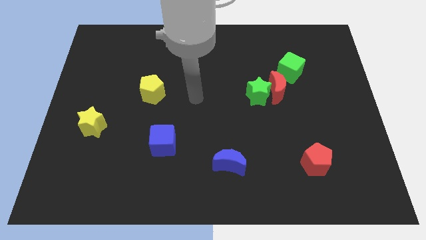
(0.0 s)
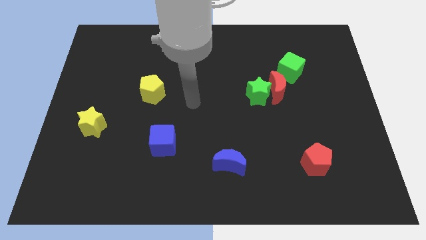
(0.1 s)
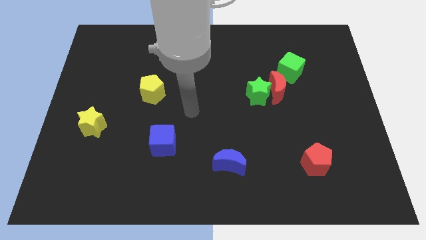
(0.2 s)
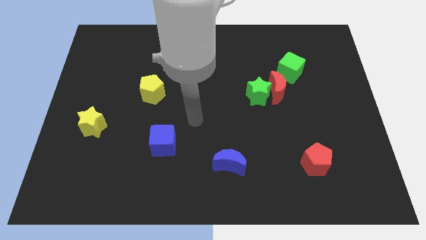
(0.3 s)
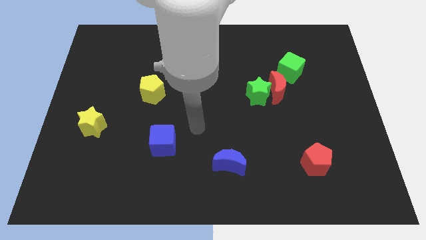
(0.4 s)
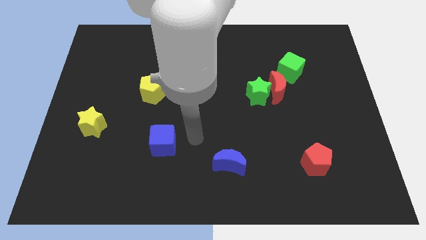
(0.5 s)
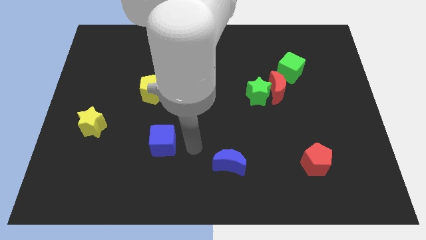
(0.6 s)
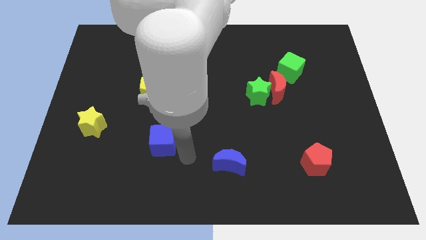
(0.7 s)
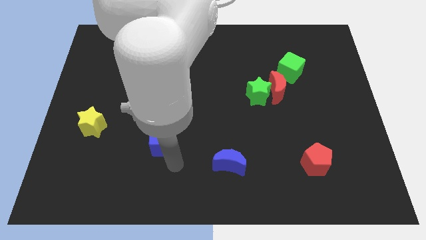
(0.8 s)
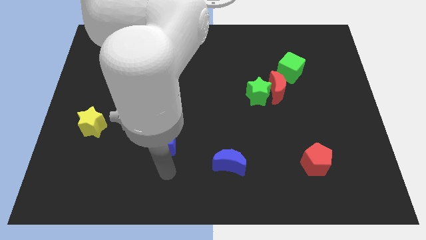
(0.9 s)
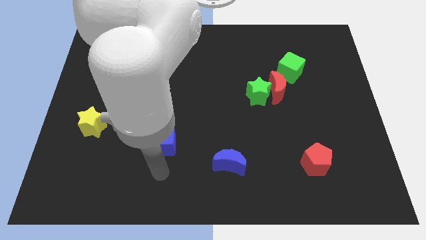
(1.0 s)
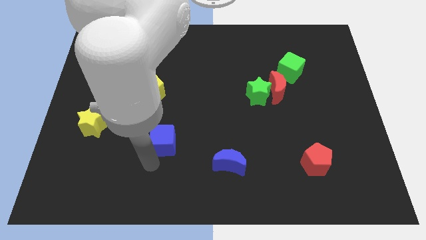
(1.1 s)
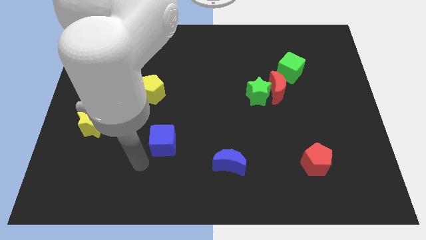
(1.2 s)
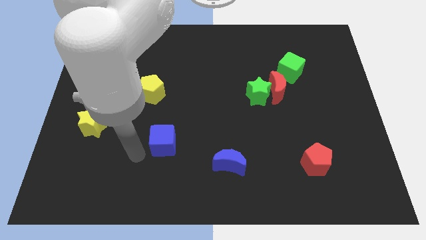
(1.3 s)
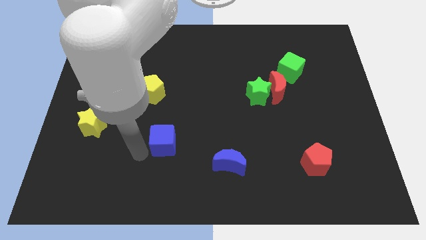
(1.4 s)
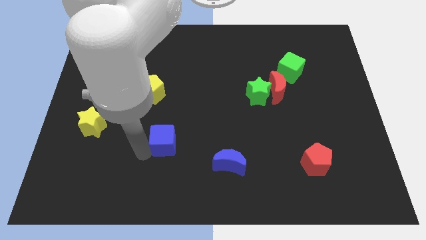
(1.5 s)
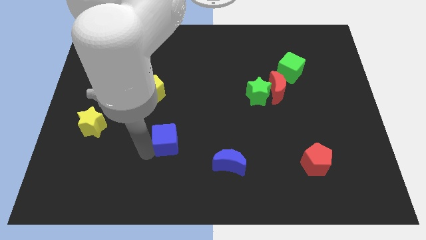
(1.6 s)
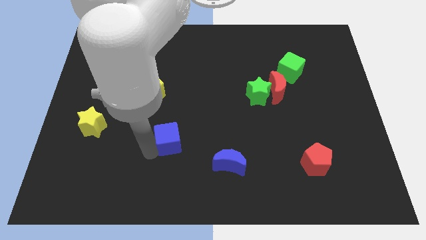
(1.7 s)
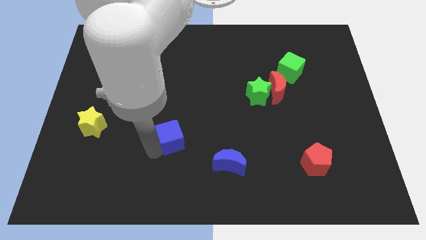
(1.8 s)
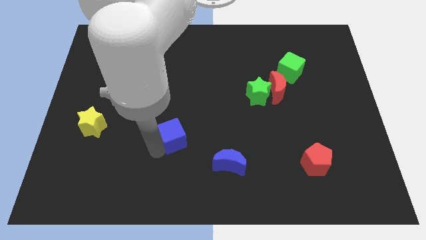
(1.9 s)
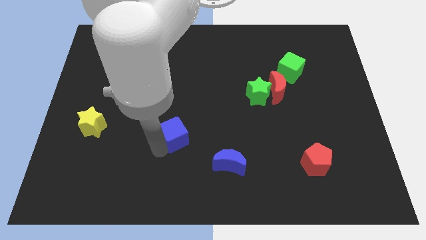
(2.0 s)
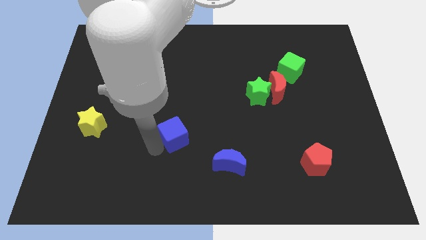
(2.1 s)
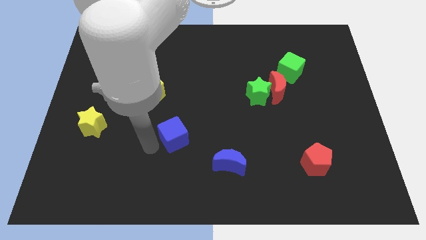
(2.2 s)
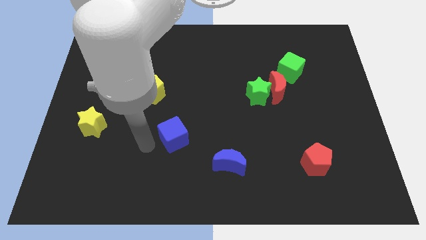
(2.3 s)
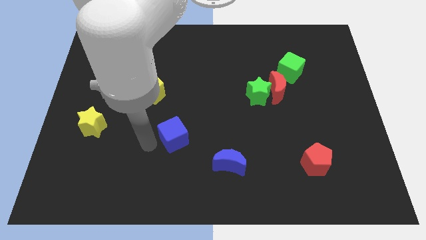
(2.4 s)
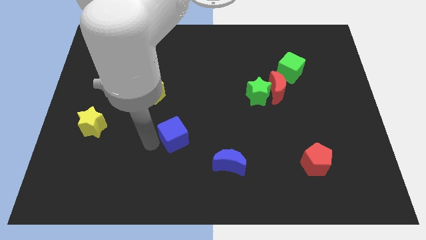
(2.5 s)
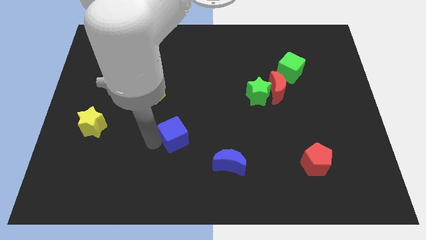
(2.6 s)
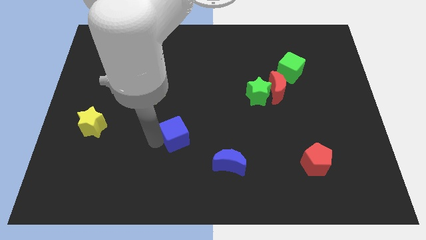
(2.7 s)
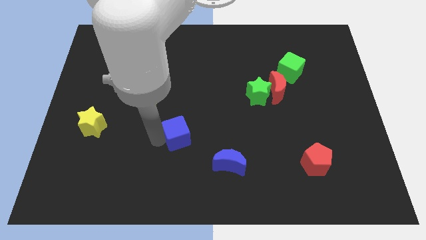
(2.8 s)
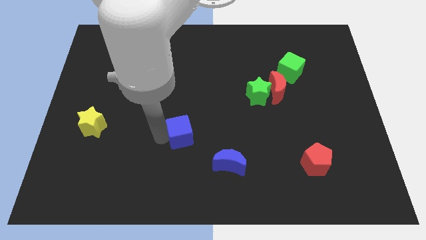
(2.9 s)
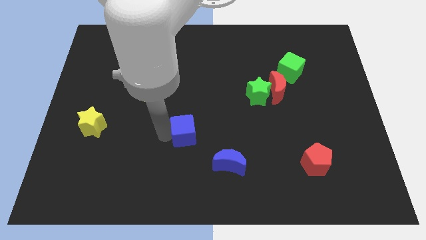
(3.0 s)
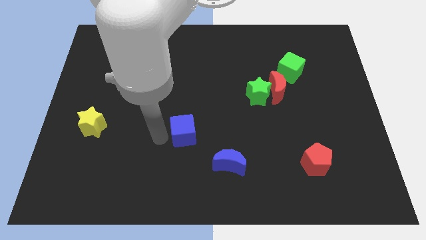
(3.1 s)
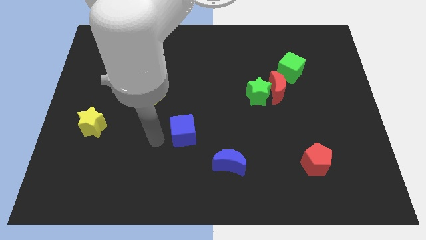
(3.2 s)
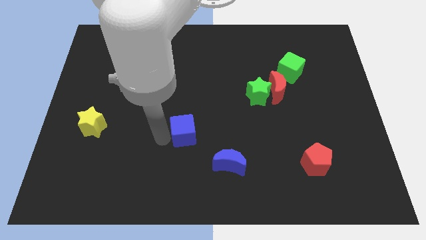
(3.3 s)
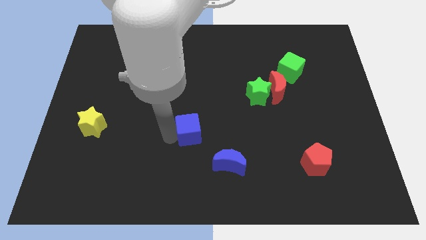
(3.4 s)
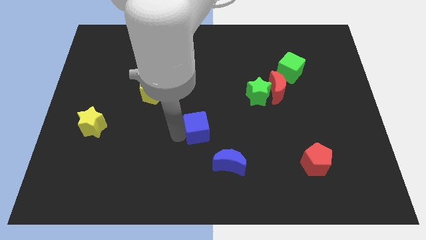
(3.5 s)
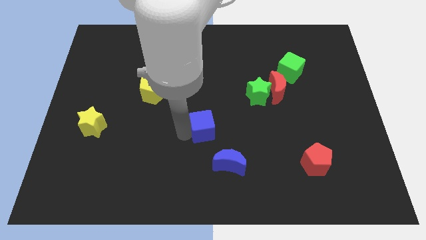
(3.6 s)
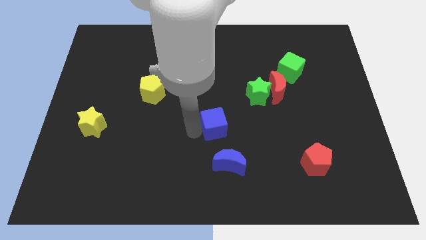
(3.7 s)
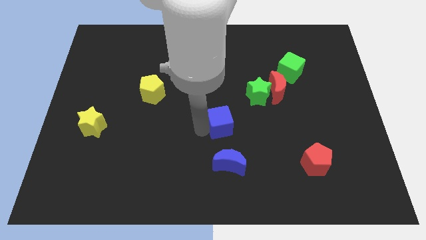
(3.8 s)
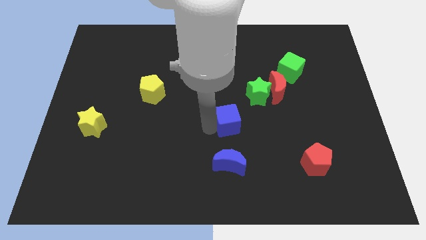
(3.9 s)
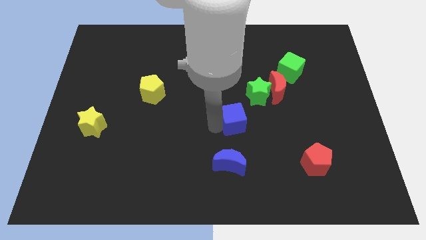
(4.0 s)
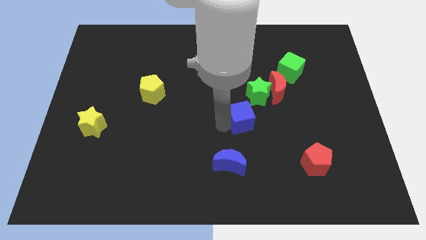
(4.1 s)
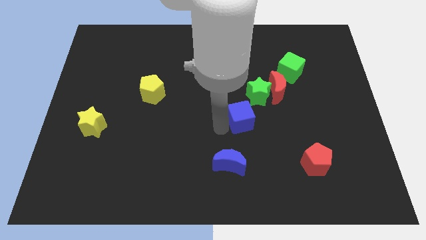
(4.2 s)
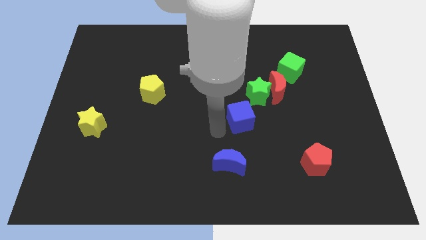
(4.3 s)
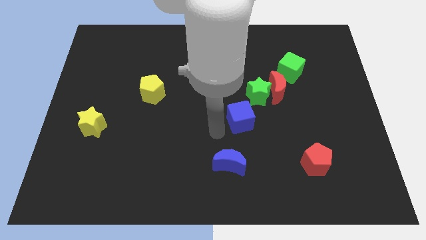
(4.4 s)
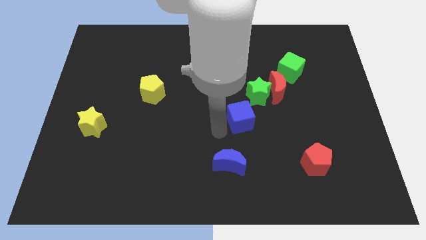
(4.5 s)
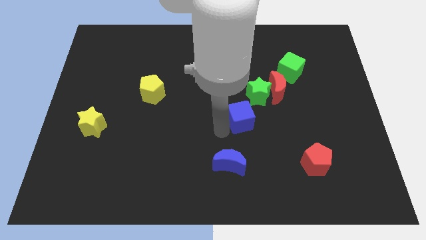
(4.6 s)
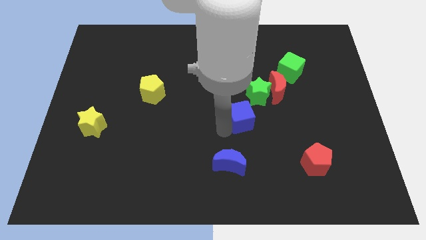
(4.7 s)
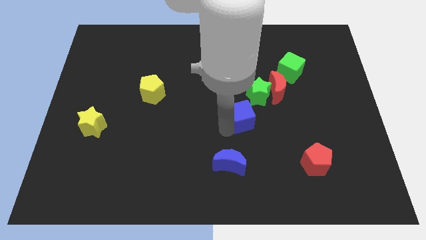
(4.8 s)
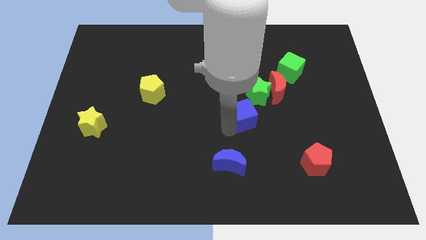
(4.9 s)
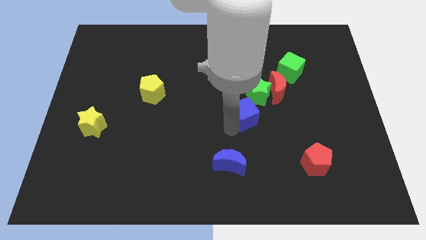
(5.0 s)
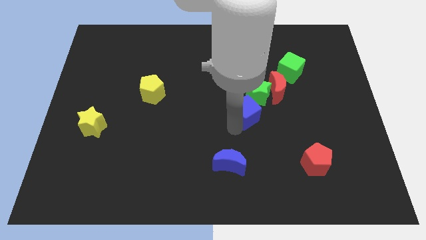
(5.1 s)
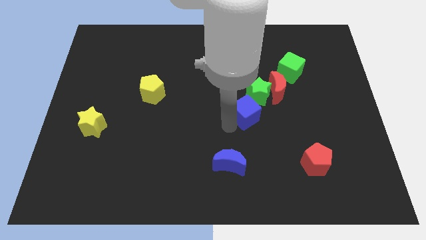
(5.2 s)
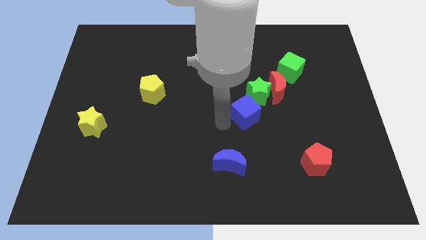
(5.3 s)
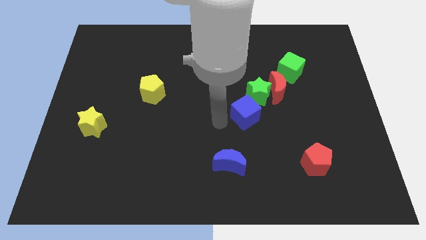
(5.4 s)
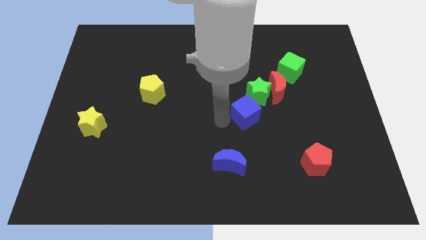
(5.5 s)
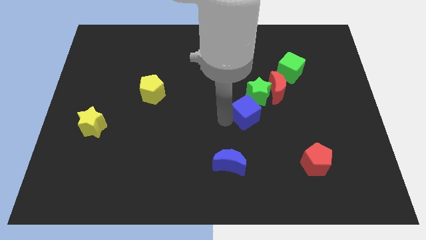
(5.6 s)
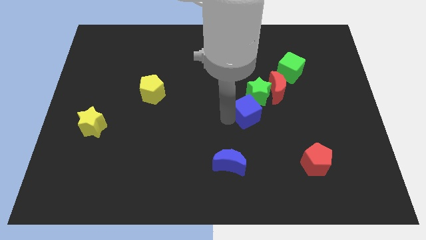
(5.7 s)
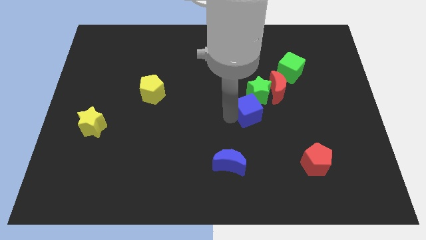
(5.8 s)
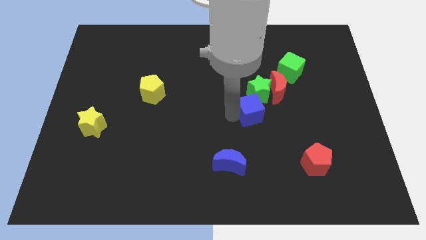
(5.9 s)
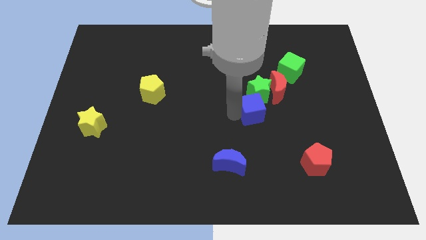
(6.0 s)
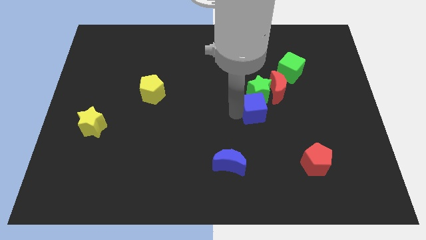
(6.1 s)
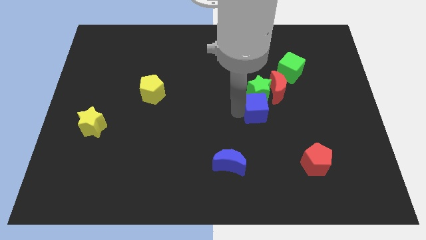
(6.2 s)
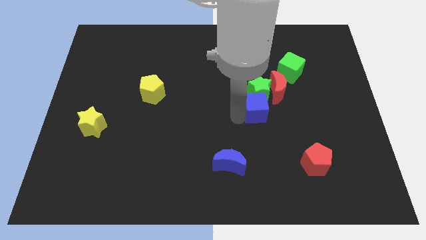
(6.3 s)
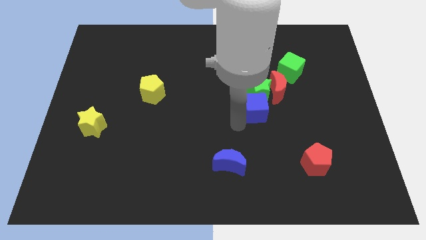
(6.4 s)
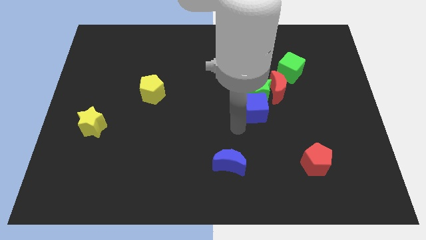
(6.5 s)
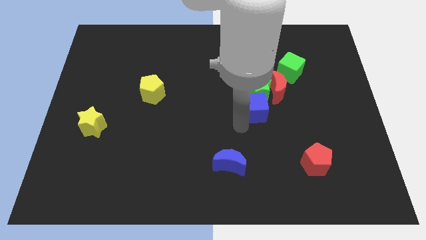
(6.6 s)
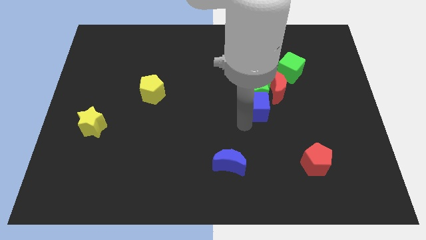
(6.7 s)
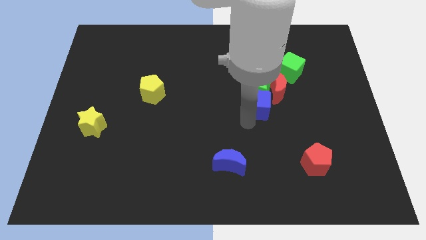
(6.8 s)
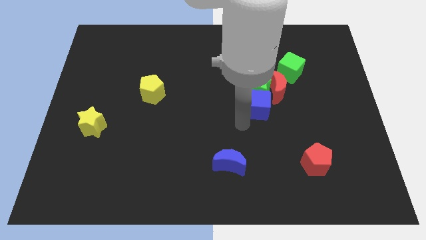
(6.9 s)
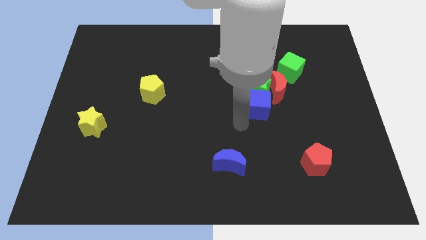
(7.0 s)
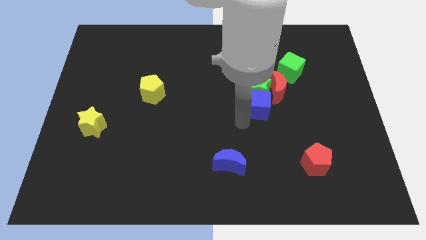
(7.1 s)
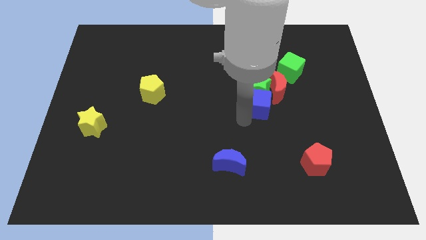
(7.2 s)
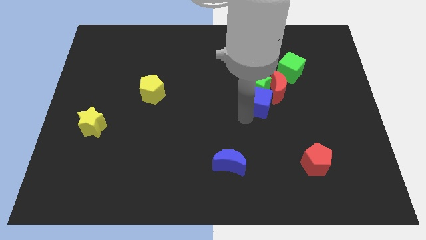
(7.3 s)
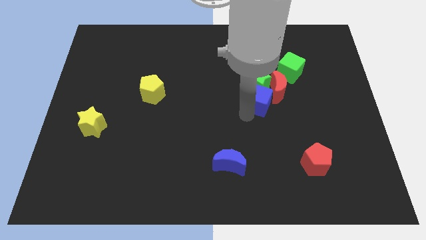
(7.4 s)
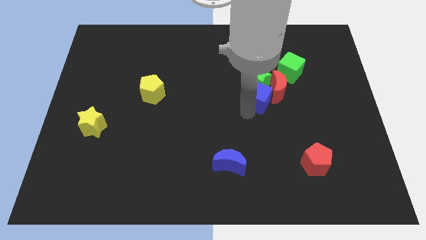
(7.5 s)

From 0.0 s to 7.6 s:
slide the blue cube towards the red moon

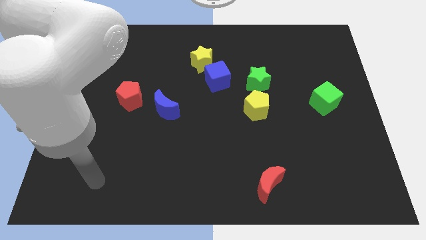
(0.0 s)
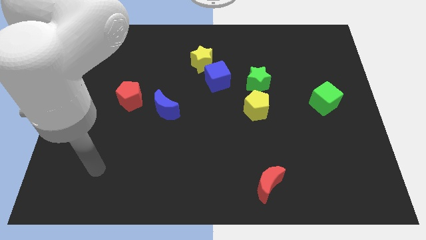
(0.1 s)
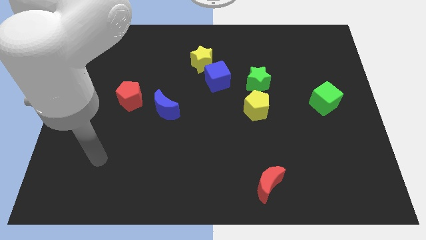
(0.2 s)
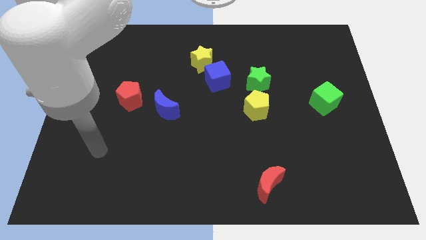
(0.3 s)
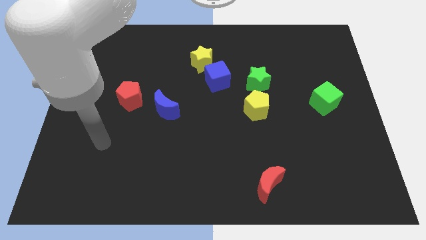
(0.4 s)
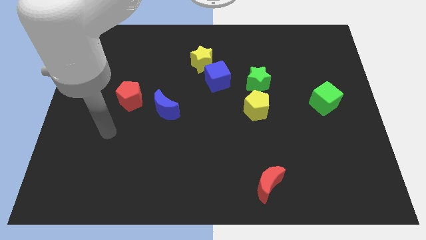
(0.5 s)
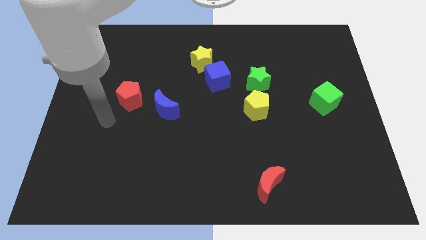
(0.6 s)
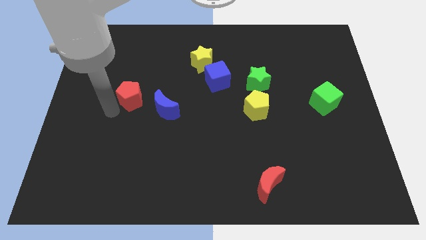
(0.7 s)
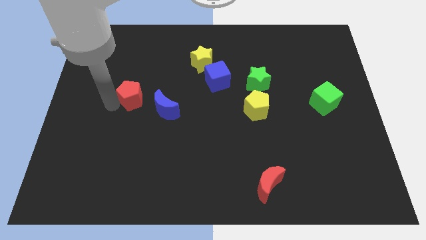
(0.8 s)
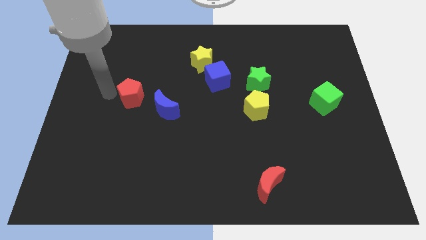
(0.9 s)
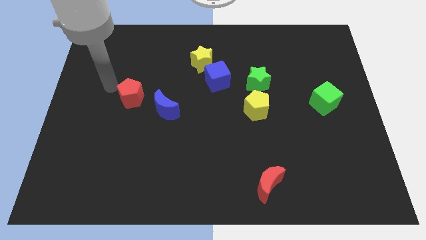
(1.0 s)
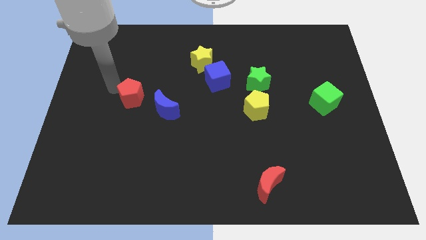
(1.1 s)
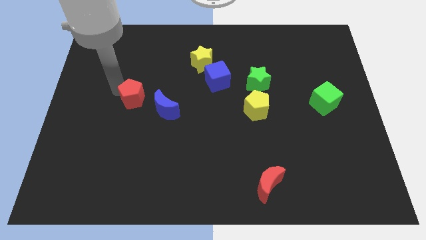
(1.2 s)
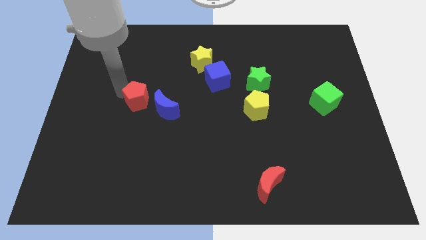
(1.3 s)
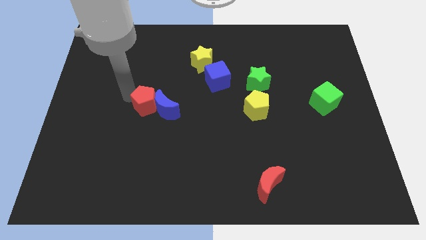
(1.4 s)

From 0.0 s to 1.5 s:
push the red pentagon to the blue moon
